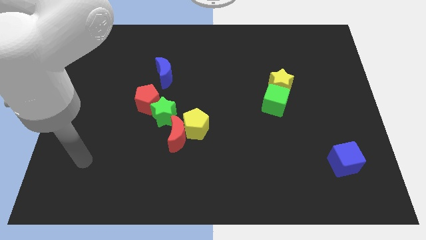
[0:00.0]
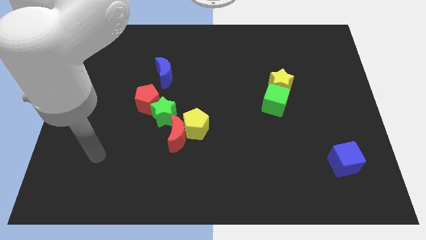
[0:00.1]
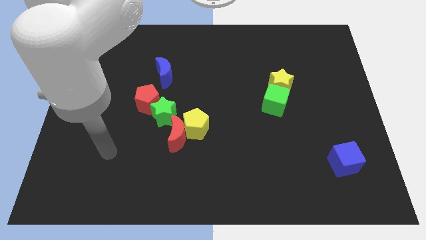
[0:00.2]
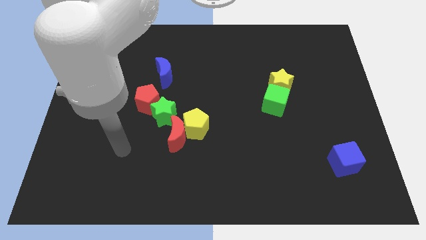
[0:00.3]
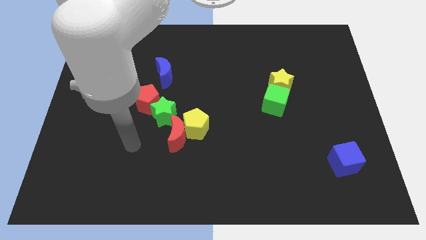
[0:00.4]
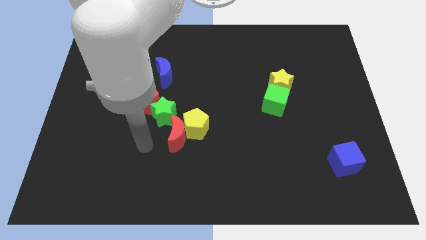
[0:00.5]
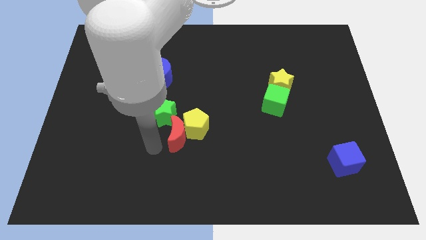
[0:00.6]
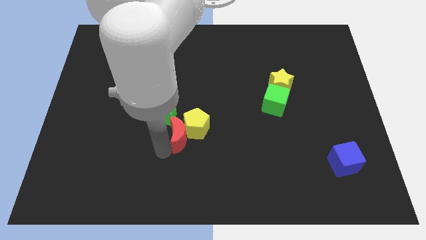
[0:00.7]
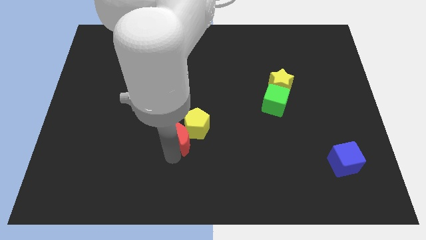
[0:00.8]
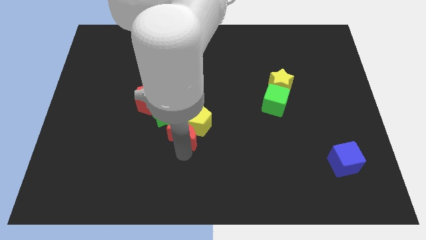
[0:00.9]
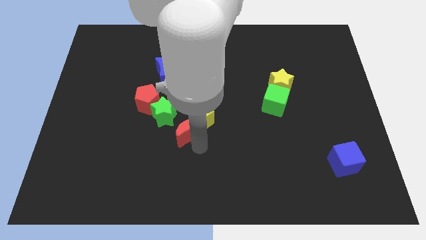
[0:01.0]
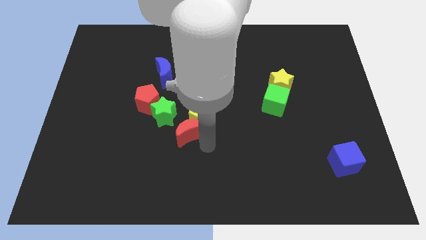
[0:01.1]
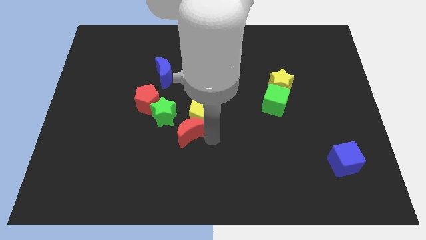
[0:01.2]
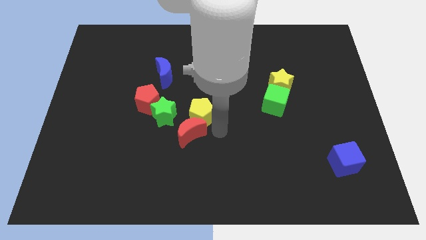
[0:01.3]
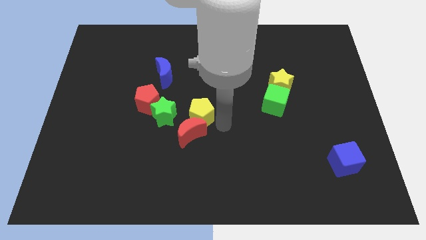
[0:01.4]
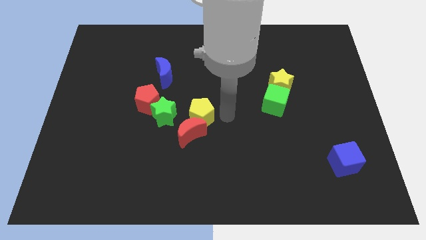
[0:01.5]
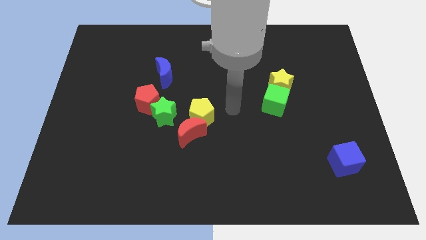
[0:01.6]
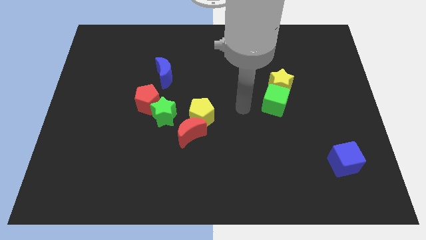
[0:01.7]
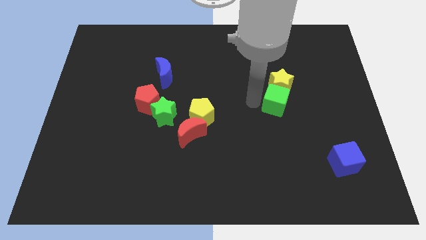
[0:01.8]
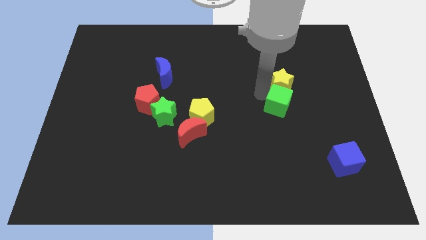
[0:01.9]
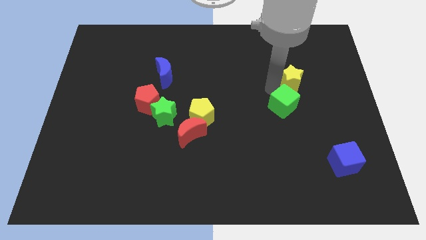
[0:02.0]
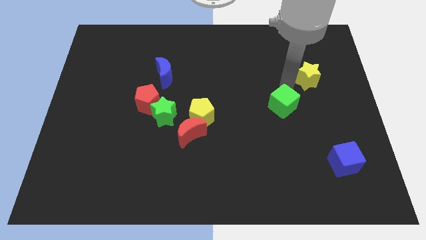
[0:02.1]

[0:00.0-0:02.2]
move the green cube away from the yellow star

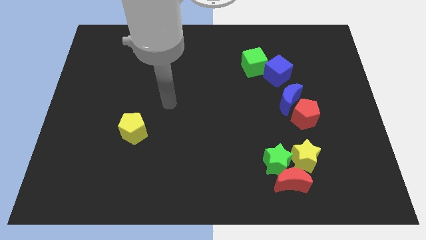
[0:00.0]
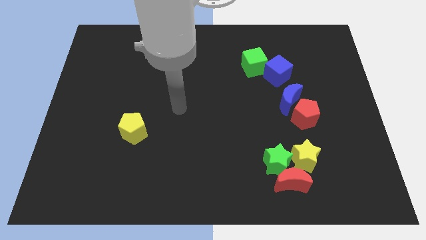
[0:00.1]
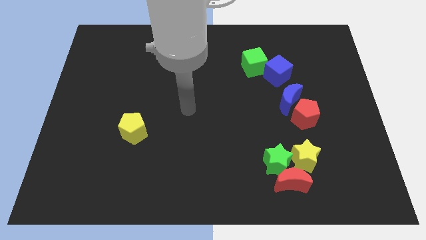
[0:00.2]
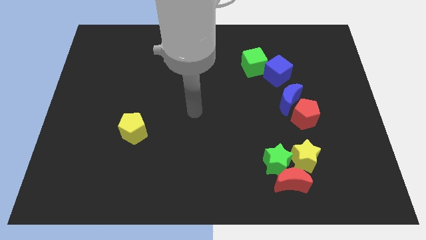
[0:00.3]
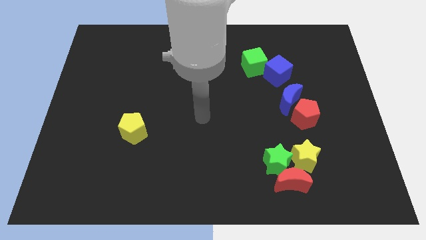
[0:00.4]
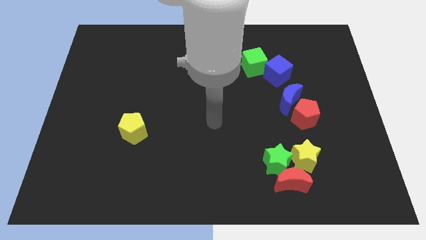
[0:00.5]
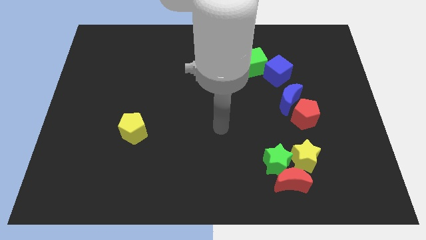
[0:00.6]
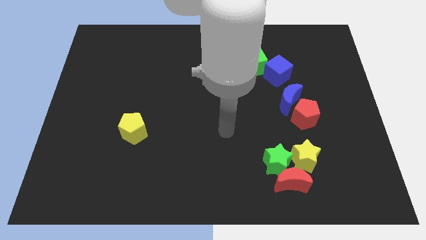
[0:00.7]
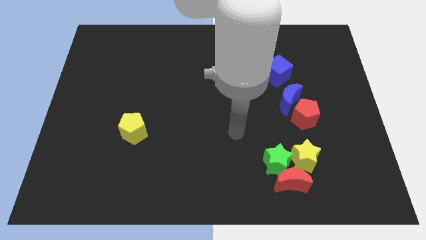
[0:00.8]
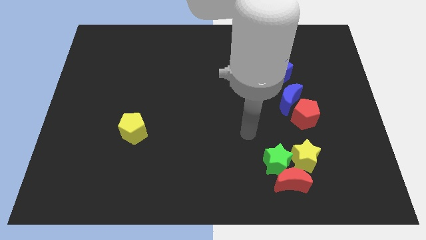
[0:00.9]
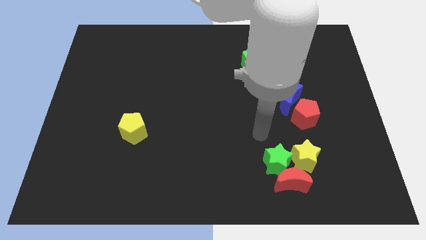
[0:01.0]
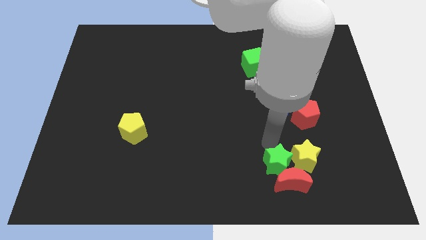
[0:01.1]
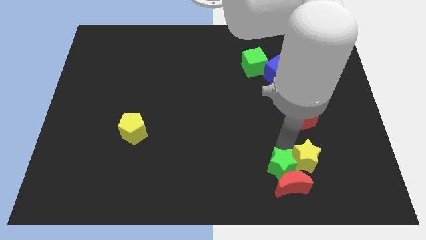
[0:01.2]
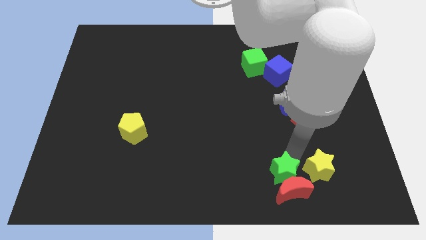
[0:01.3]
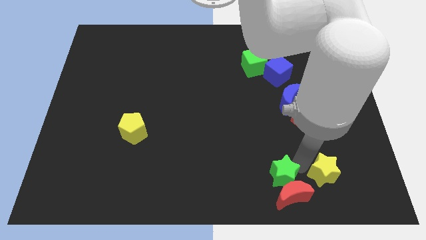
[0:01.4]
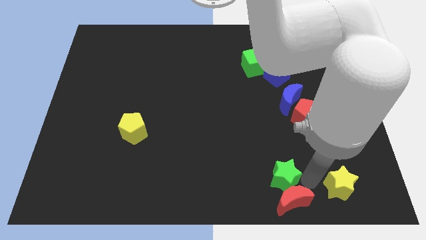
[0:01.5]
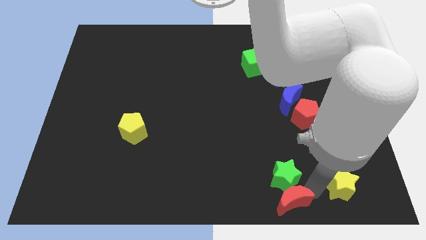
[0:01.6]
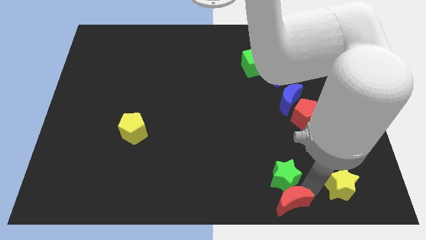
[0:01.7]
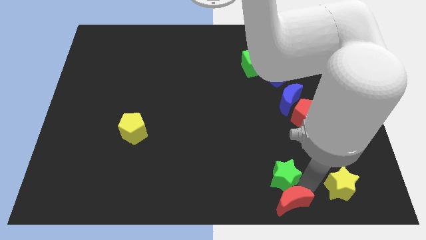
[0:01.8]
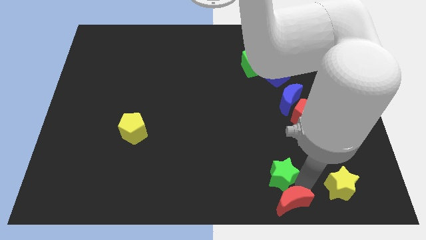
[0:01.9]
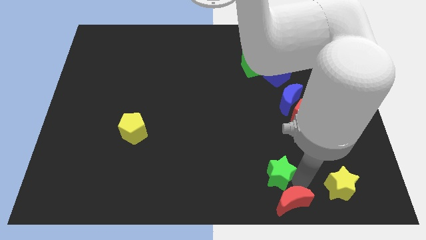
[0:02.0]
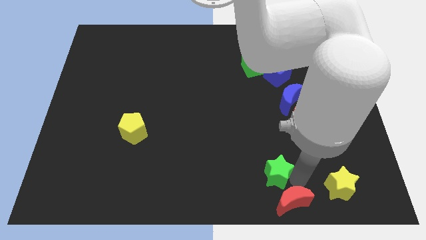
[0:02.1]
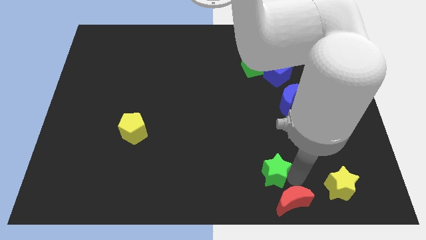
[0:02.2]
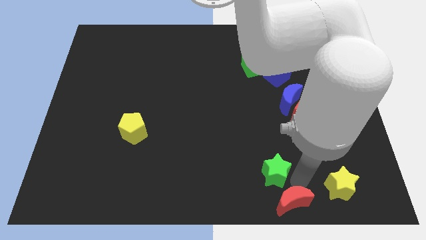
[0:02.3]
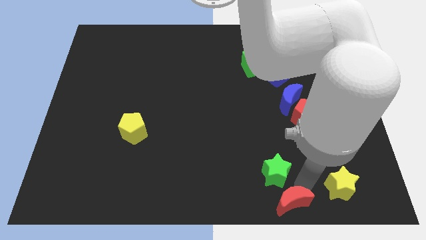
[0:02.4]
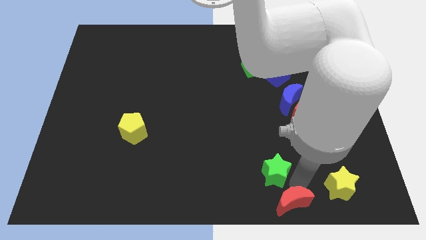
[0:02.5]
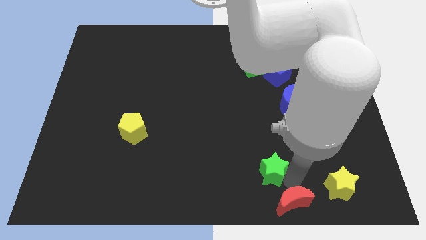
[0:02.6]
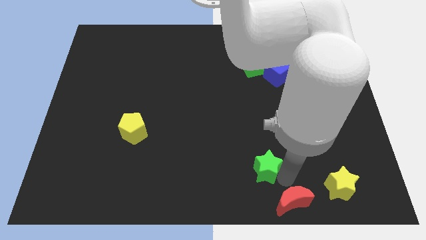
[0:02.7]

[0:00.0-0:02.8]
pull the green star apart from the red moon and yellow star

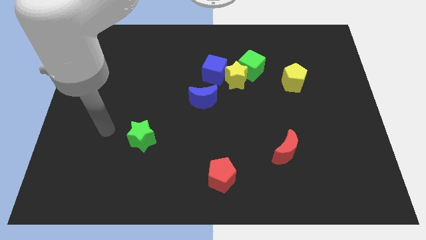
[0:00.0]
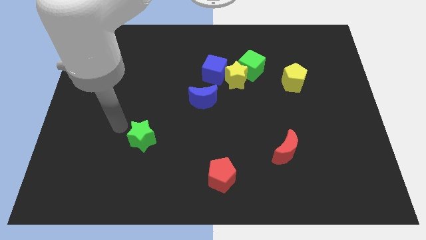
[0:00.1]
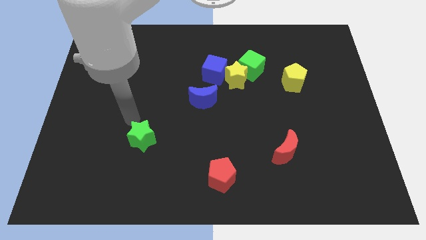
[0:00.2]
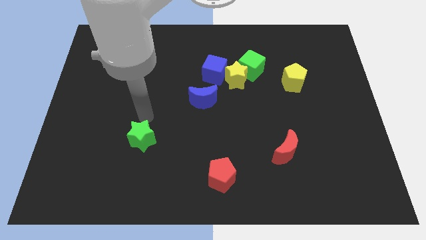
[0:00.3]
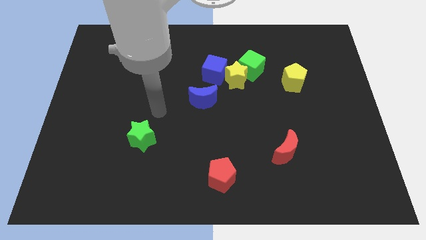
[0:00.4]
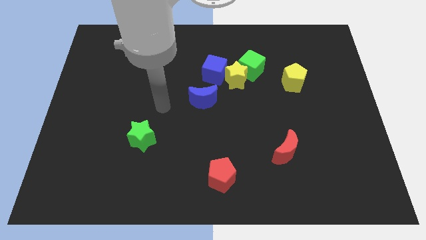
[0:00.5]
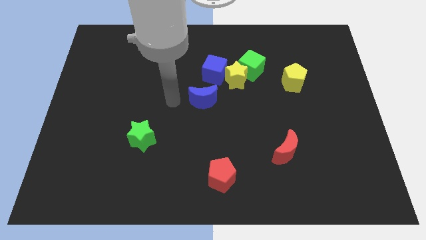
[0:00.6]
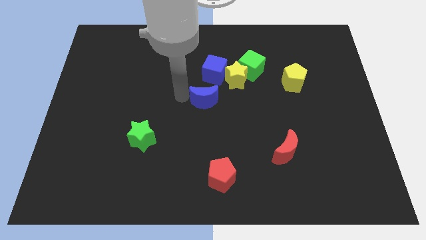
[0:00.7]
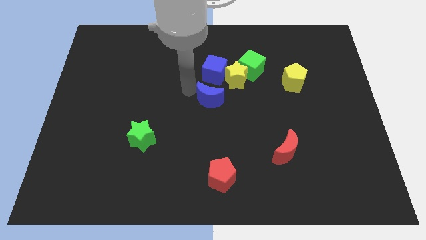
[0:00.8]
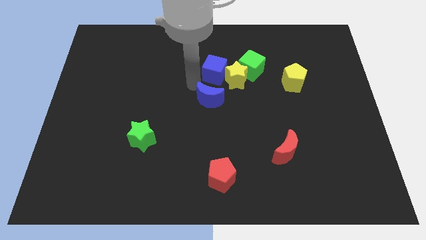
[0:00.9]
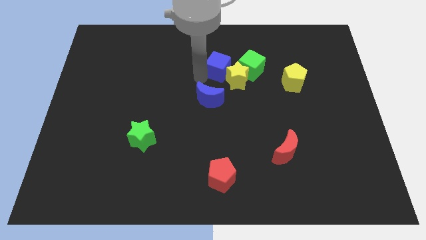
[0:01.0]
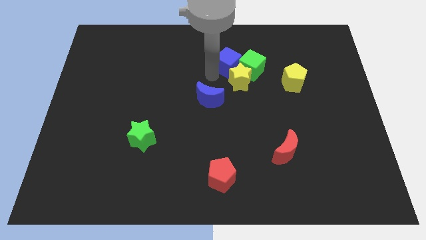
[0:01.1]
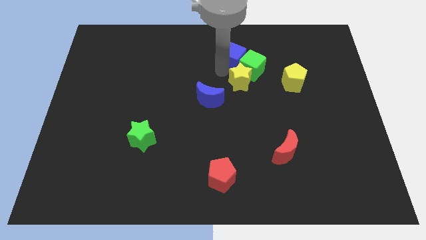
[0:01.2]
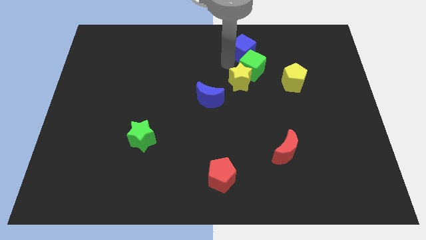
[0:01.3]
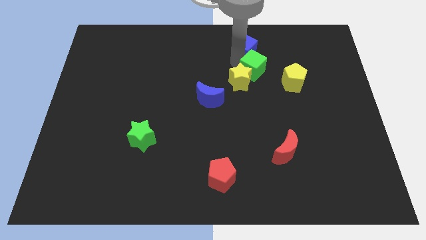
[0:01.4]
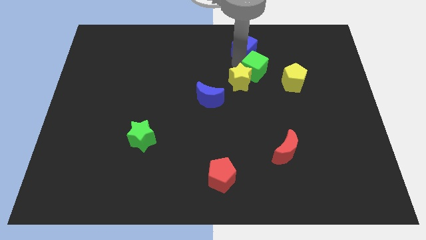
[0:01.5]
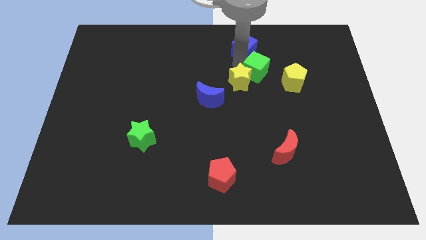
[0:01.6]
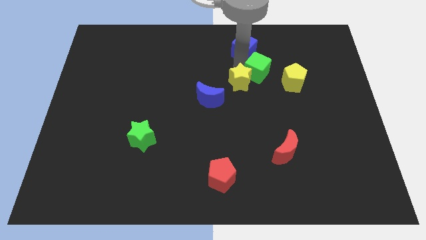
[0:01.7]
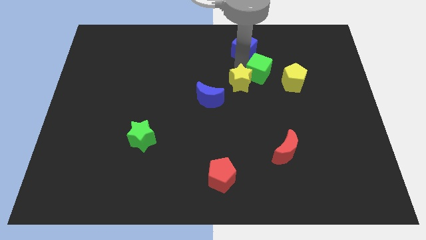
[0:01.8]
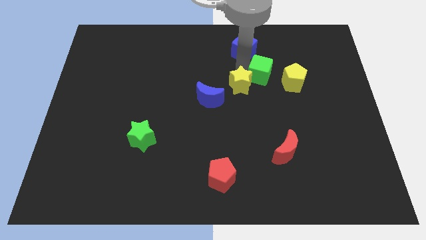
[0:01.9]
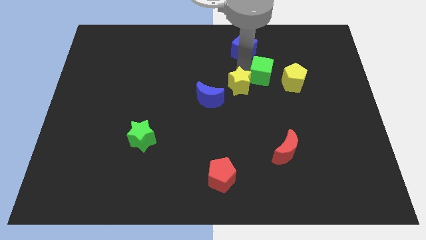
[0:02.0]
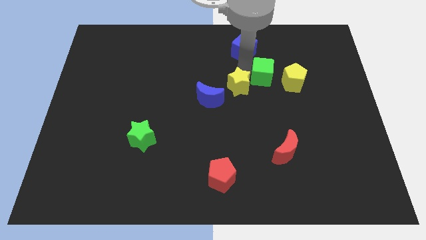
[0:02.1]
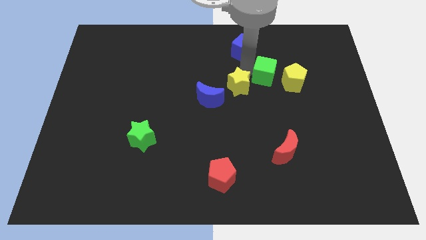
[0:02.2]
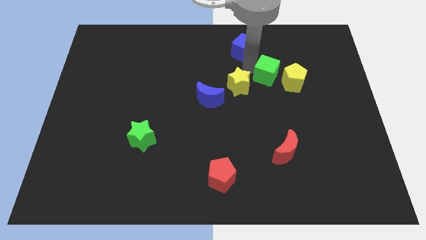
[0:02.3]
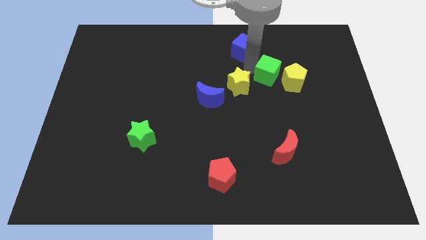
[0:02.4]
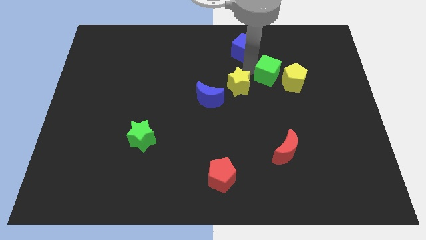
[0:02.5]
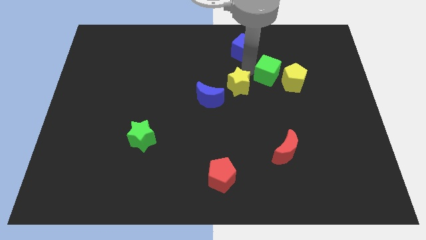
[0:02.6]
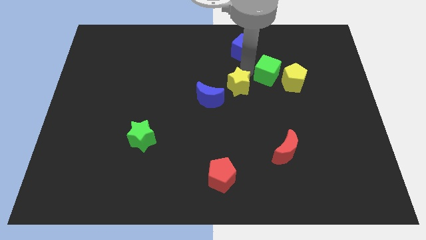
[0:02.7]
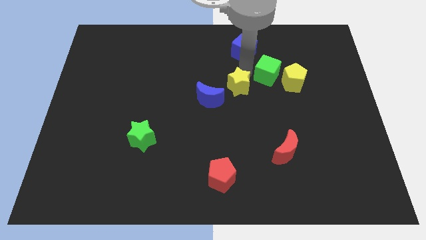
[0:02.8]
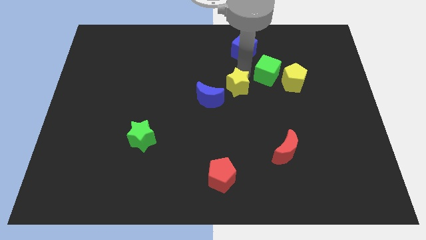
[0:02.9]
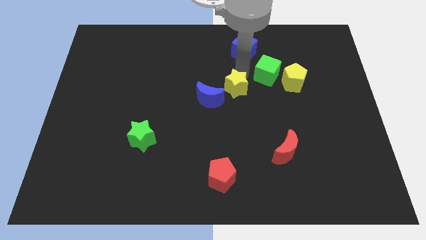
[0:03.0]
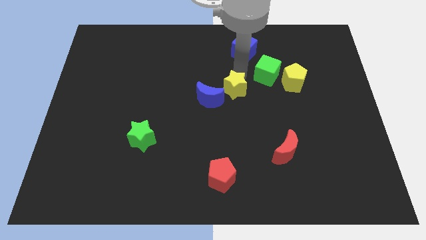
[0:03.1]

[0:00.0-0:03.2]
pull the yellow star apart from the green cube and blue cube

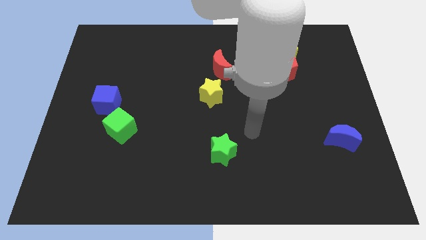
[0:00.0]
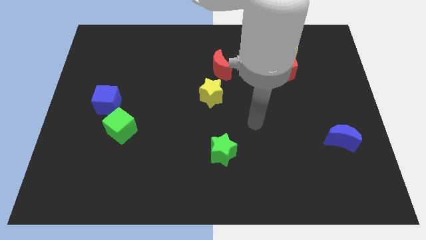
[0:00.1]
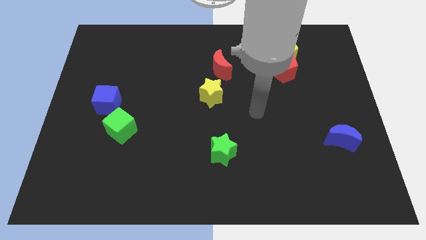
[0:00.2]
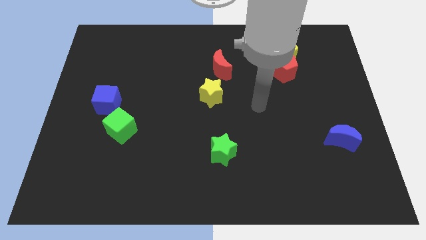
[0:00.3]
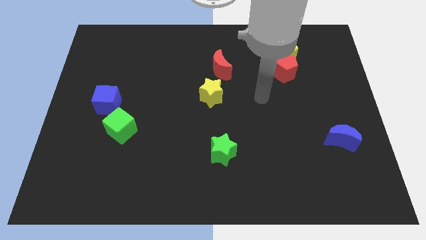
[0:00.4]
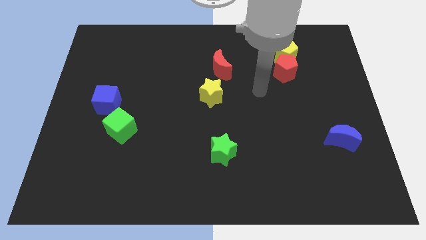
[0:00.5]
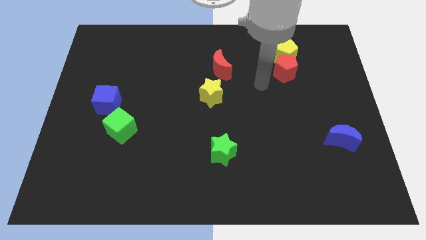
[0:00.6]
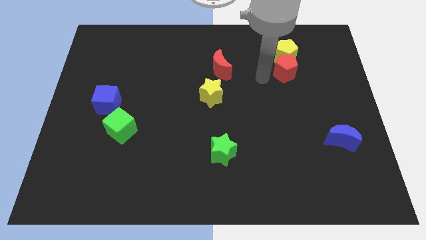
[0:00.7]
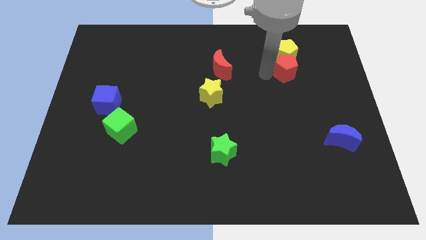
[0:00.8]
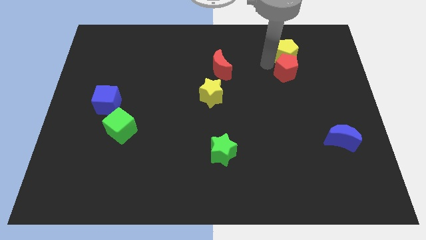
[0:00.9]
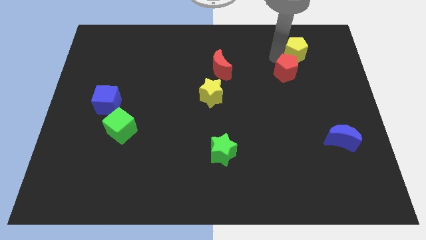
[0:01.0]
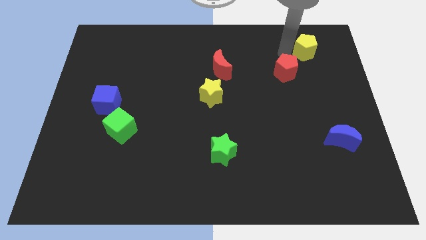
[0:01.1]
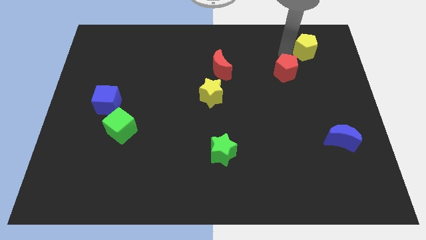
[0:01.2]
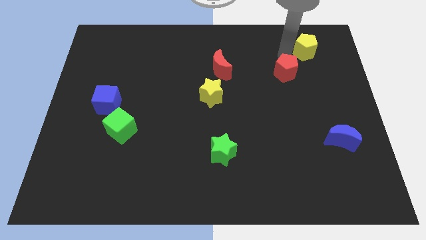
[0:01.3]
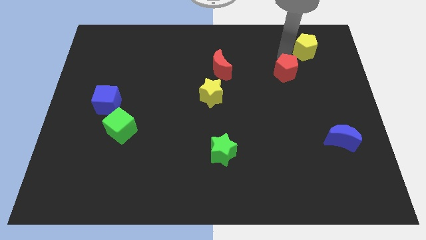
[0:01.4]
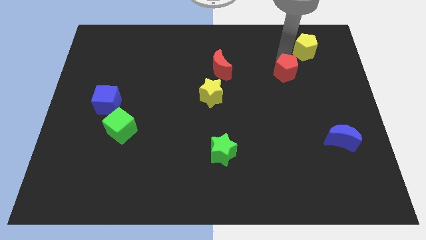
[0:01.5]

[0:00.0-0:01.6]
pull the red pentagon apart from the yellow pentagon
